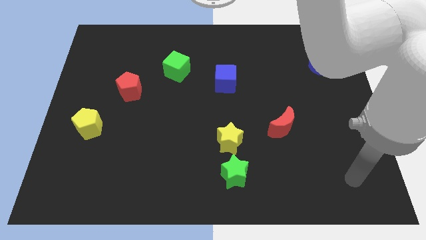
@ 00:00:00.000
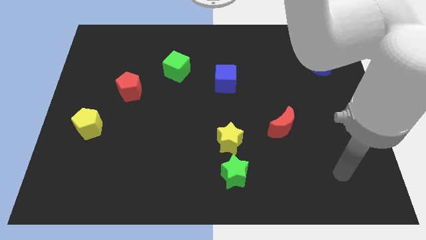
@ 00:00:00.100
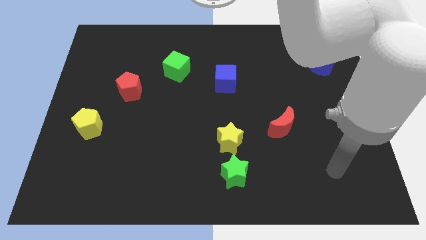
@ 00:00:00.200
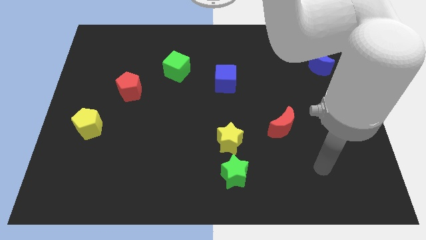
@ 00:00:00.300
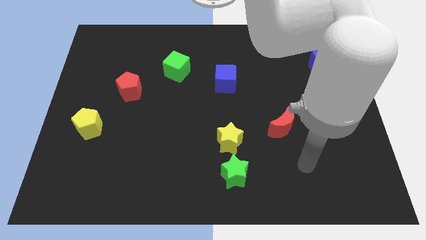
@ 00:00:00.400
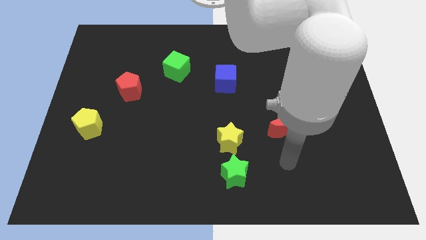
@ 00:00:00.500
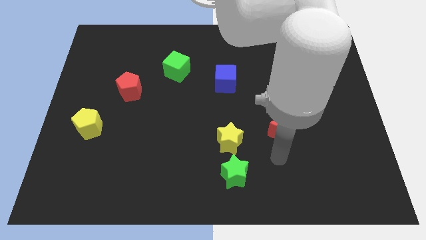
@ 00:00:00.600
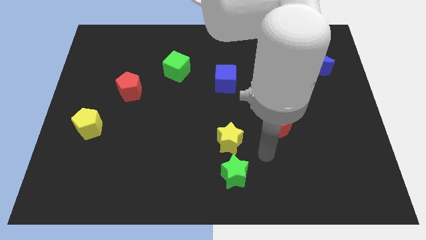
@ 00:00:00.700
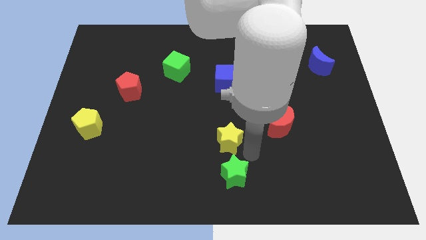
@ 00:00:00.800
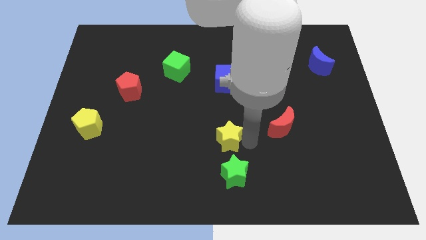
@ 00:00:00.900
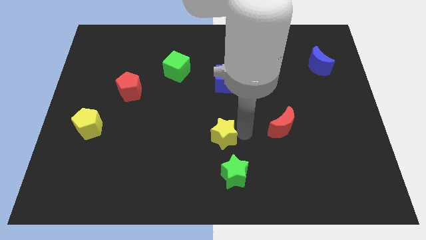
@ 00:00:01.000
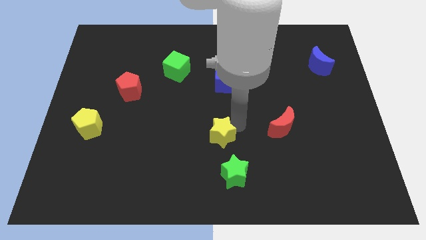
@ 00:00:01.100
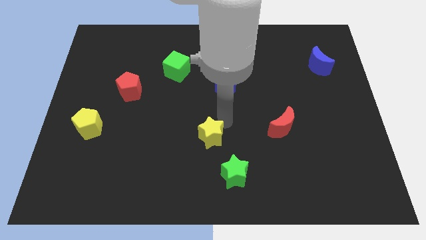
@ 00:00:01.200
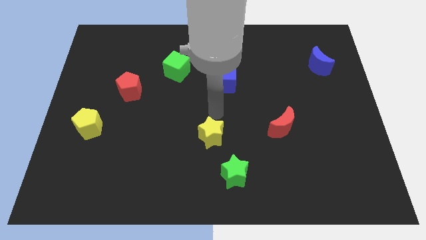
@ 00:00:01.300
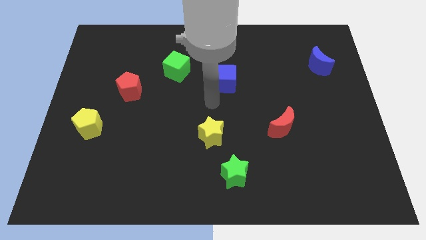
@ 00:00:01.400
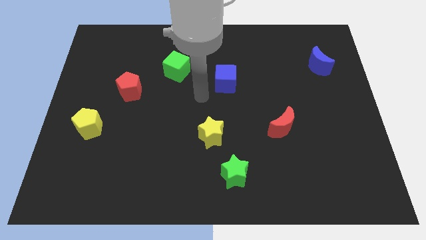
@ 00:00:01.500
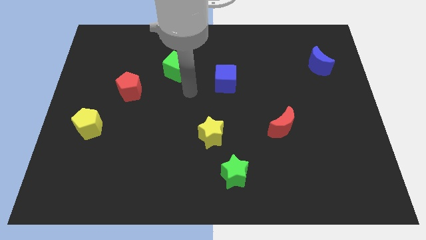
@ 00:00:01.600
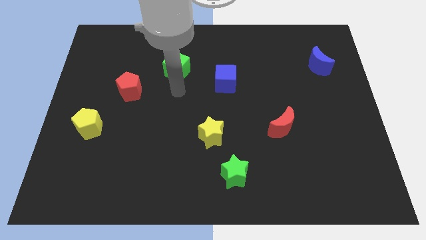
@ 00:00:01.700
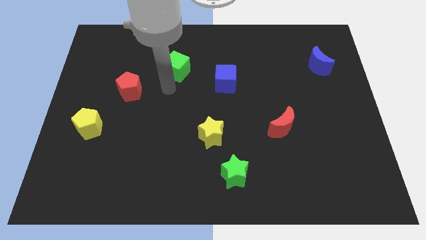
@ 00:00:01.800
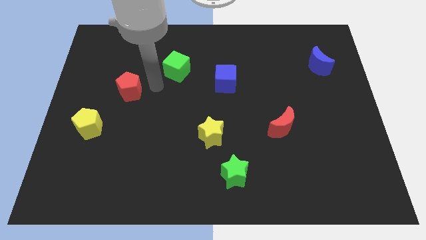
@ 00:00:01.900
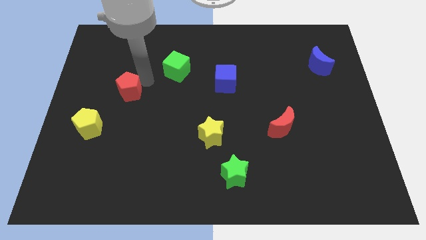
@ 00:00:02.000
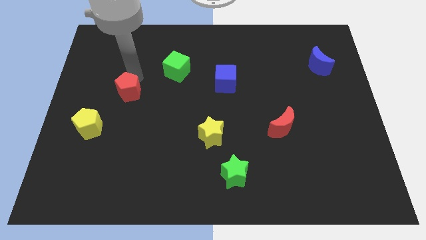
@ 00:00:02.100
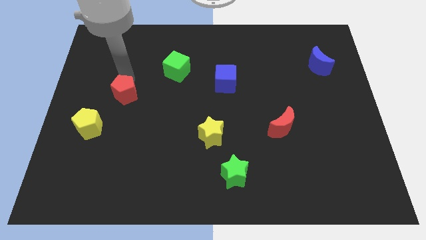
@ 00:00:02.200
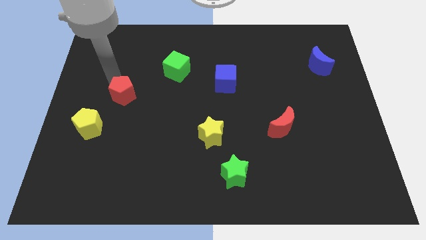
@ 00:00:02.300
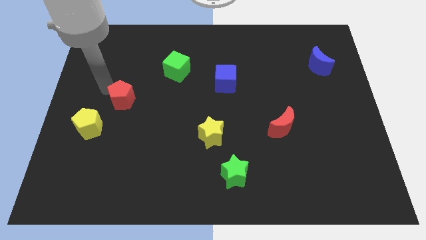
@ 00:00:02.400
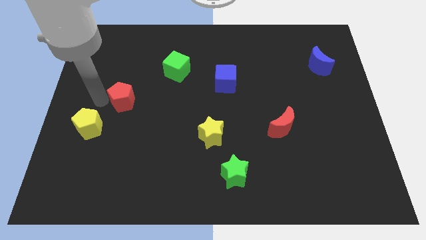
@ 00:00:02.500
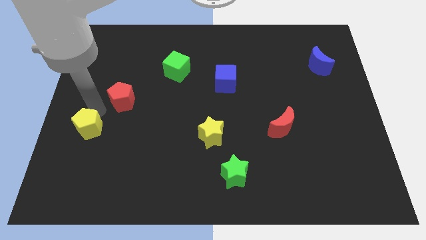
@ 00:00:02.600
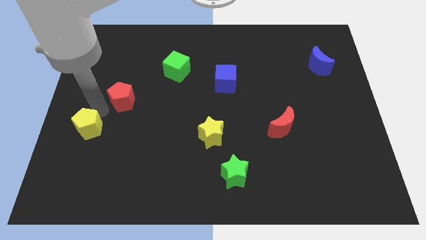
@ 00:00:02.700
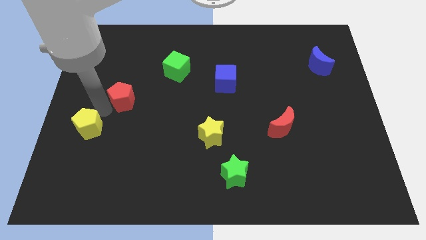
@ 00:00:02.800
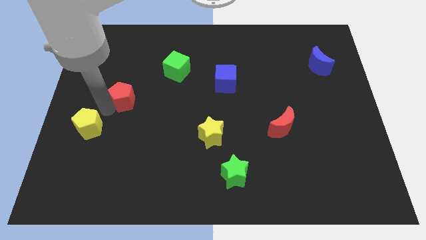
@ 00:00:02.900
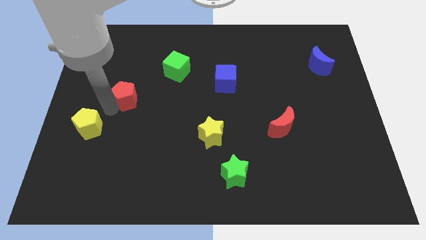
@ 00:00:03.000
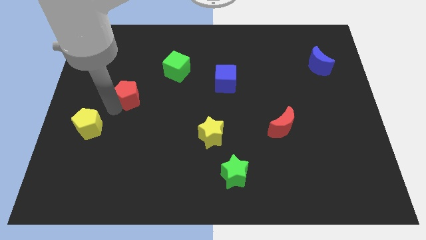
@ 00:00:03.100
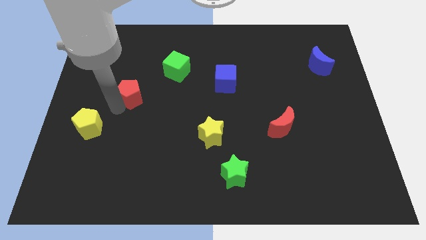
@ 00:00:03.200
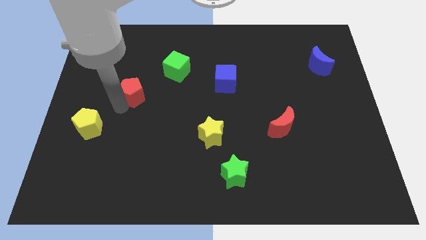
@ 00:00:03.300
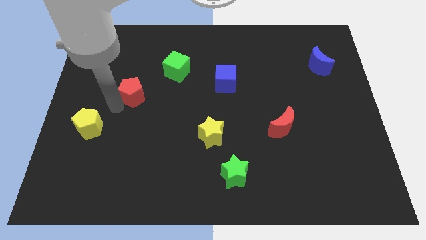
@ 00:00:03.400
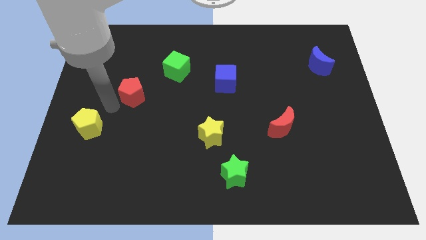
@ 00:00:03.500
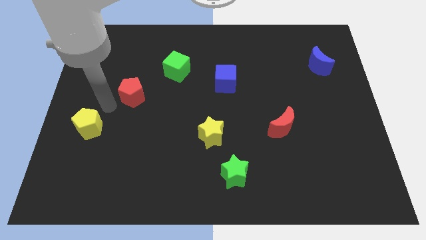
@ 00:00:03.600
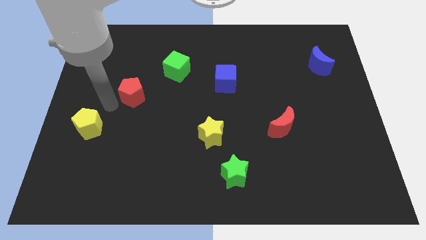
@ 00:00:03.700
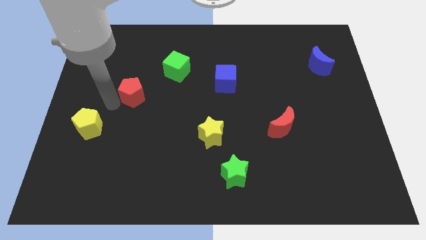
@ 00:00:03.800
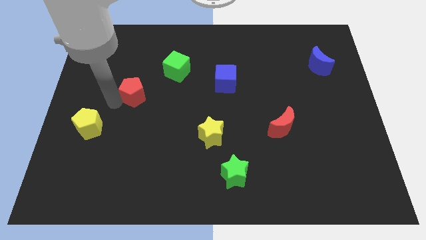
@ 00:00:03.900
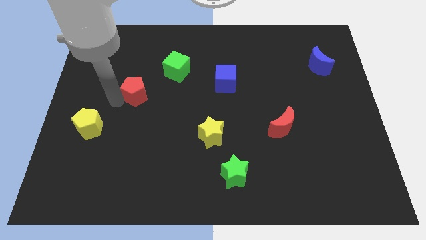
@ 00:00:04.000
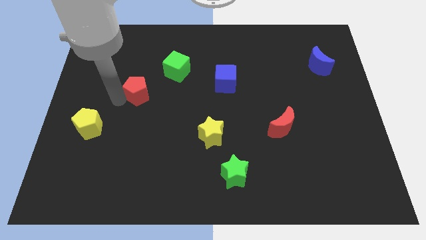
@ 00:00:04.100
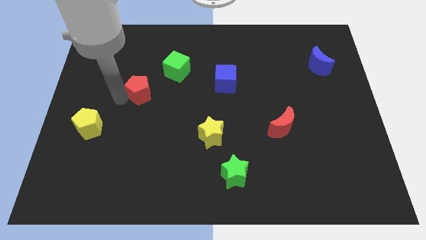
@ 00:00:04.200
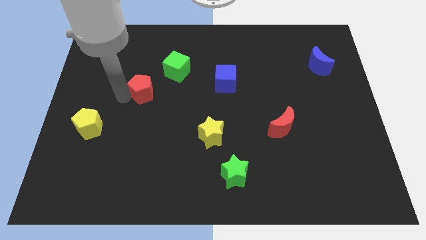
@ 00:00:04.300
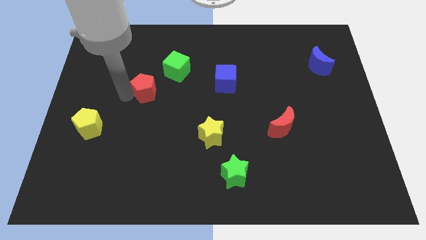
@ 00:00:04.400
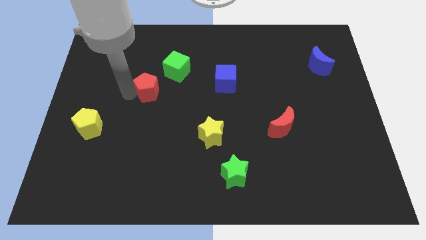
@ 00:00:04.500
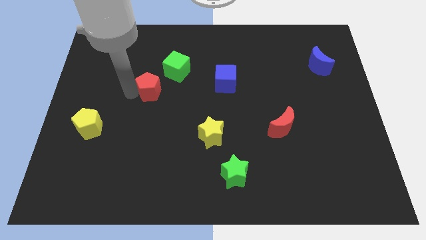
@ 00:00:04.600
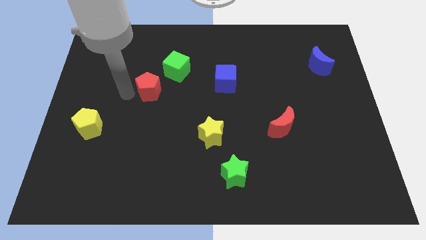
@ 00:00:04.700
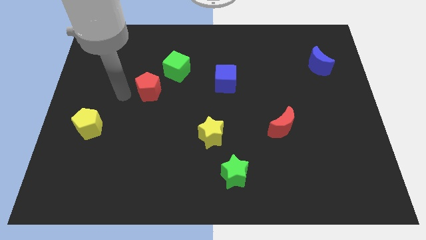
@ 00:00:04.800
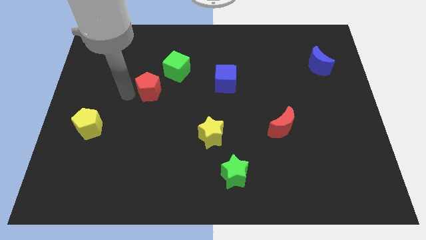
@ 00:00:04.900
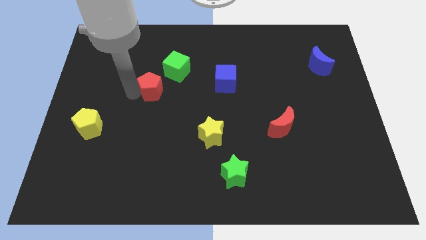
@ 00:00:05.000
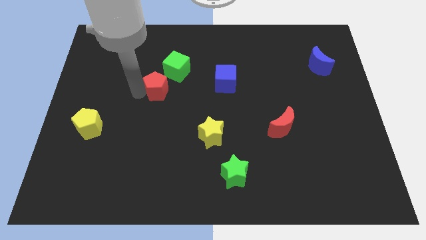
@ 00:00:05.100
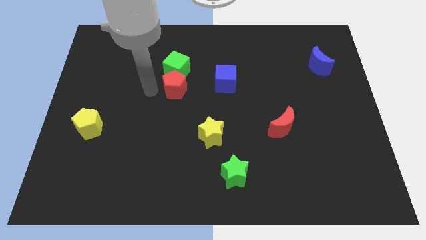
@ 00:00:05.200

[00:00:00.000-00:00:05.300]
push the red pentagon to the right a bit

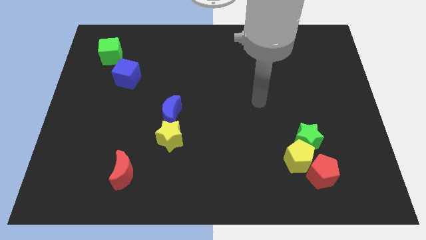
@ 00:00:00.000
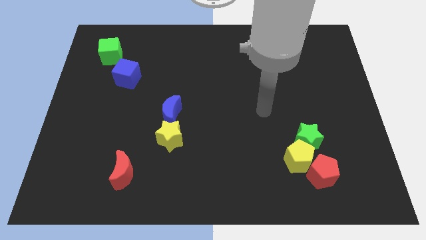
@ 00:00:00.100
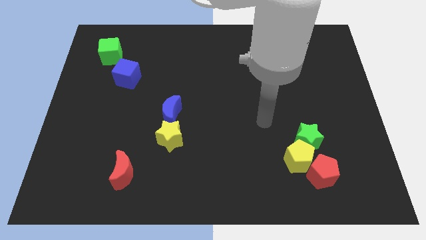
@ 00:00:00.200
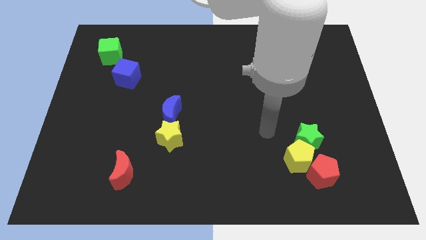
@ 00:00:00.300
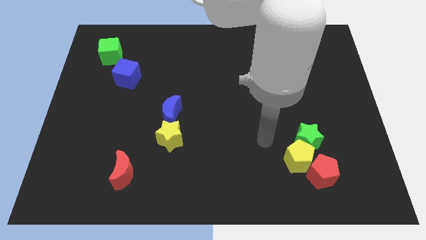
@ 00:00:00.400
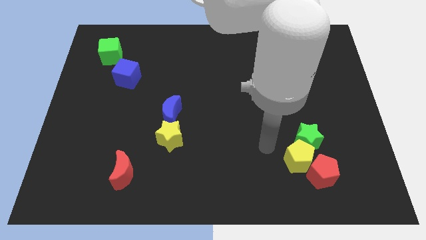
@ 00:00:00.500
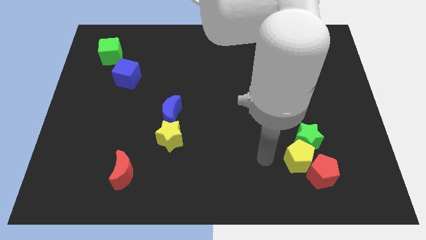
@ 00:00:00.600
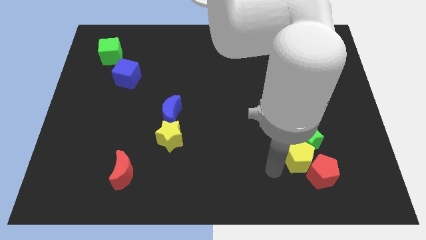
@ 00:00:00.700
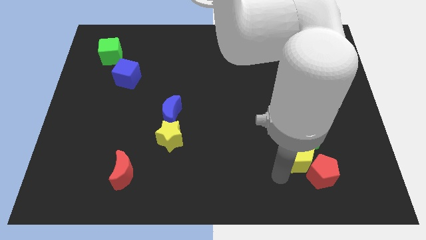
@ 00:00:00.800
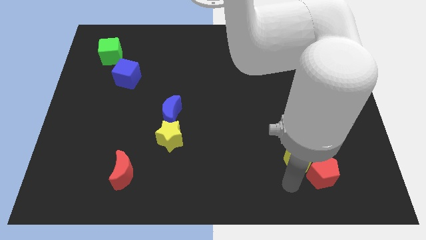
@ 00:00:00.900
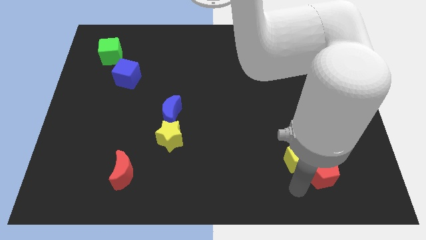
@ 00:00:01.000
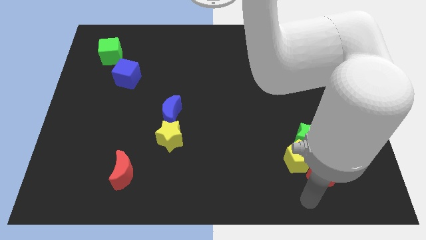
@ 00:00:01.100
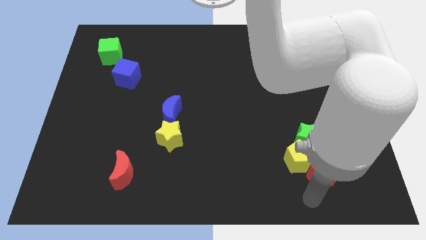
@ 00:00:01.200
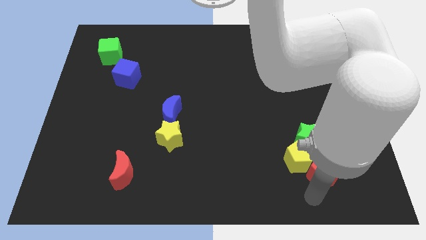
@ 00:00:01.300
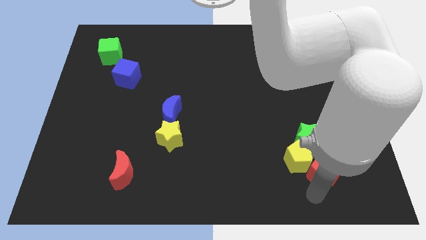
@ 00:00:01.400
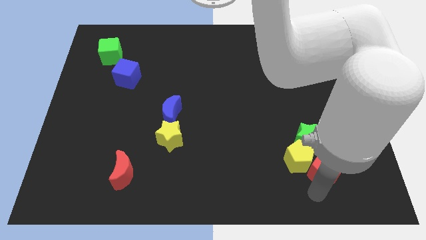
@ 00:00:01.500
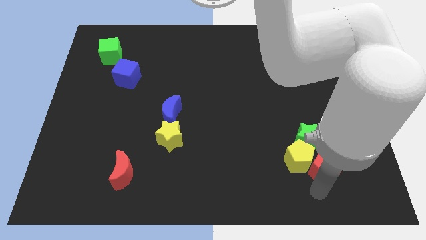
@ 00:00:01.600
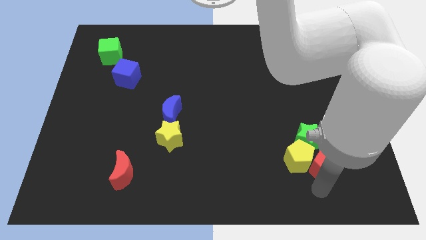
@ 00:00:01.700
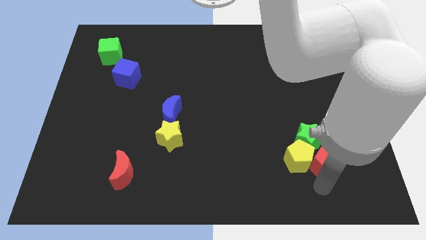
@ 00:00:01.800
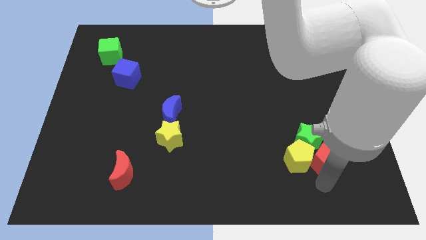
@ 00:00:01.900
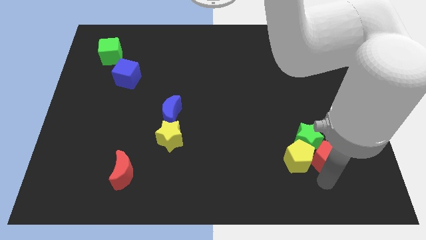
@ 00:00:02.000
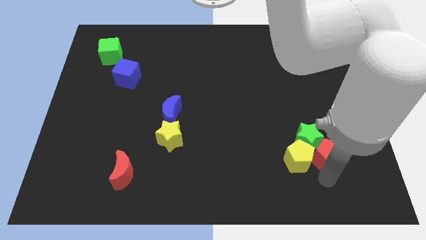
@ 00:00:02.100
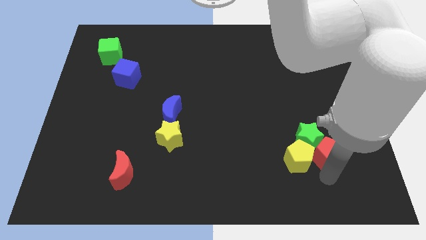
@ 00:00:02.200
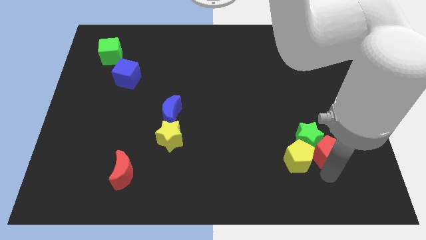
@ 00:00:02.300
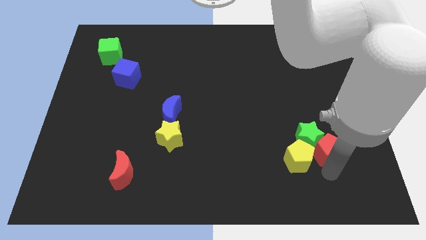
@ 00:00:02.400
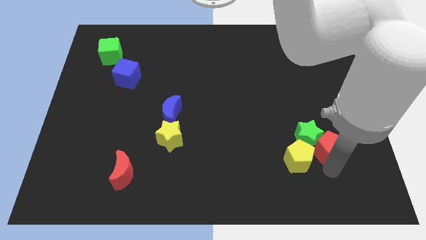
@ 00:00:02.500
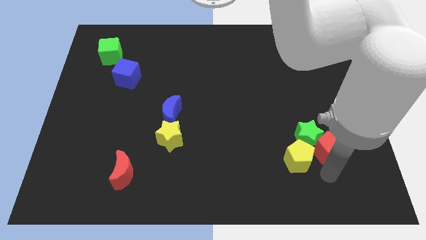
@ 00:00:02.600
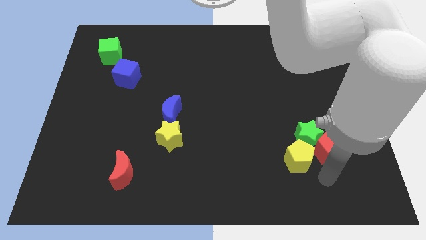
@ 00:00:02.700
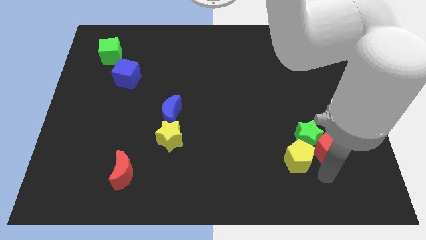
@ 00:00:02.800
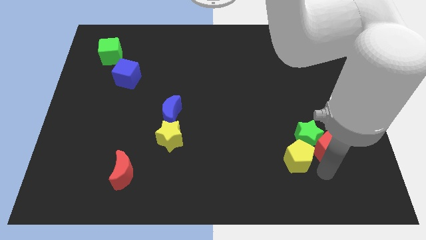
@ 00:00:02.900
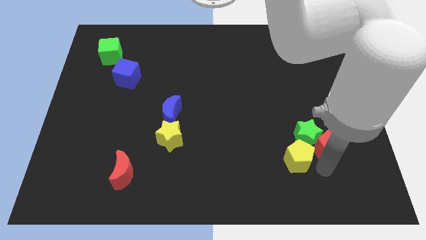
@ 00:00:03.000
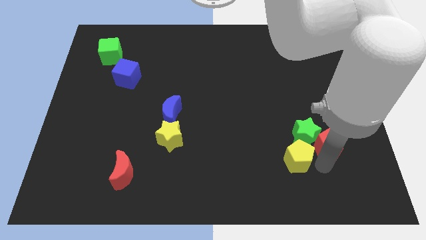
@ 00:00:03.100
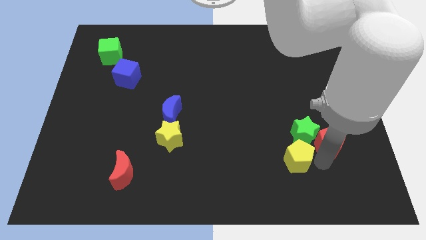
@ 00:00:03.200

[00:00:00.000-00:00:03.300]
slightly push the red pentagon up
